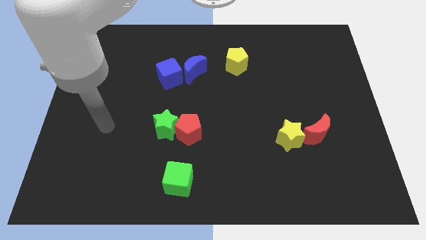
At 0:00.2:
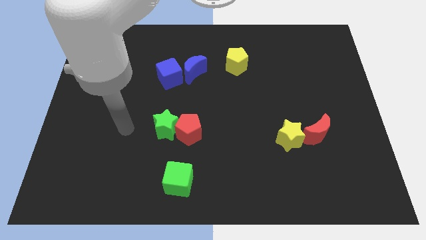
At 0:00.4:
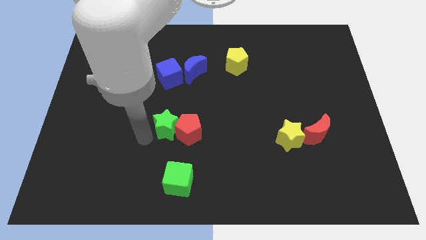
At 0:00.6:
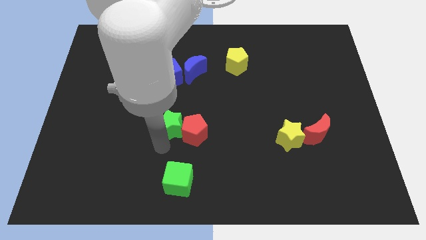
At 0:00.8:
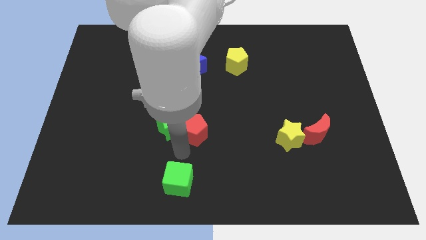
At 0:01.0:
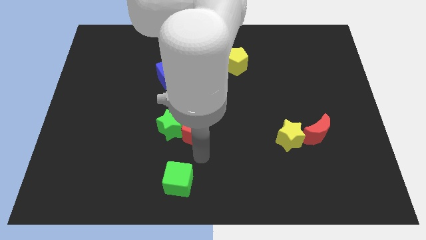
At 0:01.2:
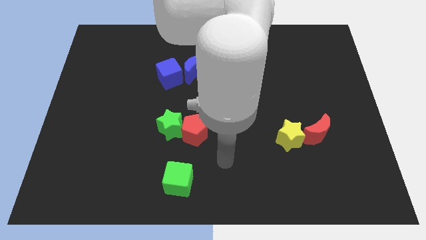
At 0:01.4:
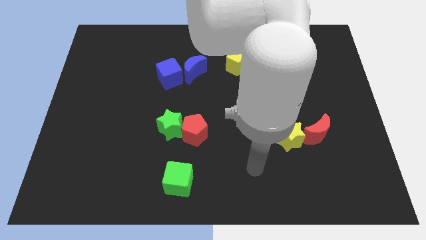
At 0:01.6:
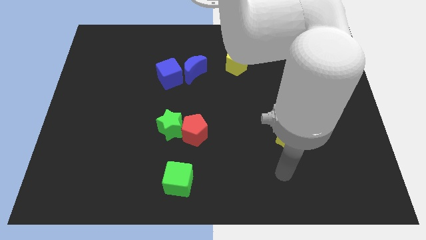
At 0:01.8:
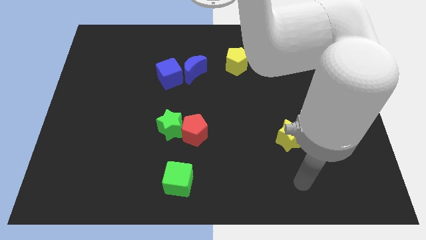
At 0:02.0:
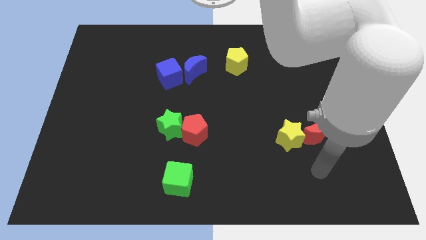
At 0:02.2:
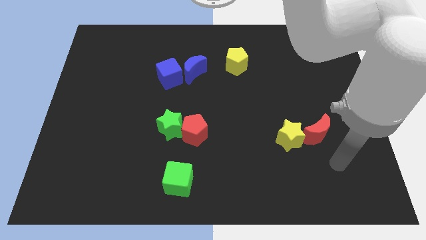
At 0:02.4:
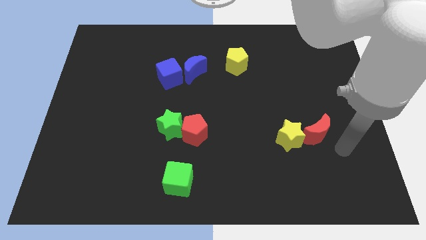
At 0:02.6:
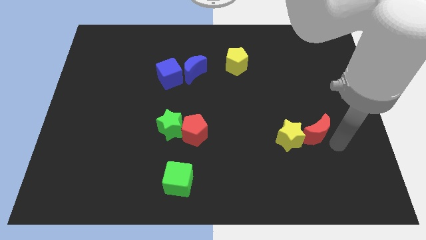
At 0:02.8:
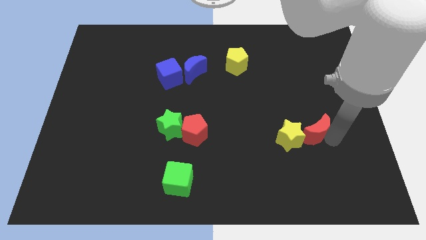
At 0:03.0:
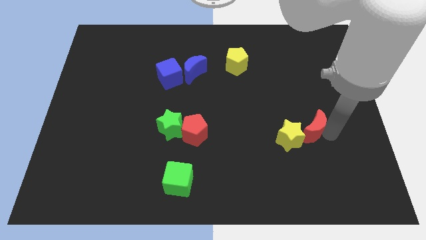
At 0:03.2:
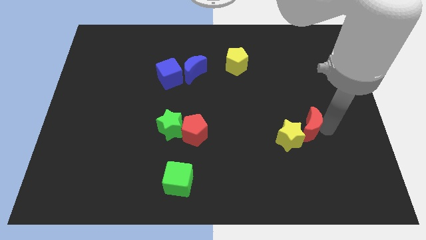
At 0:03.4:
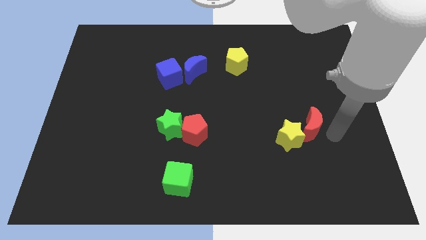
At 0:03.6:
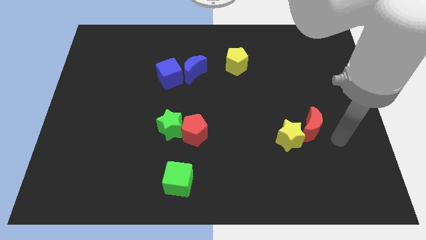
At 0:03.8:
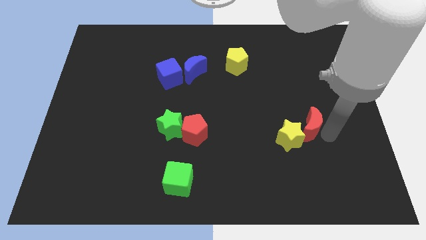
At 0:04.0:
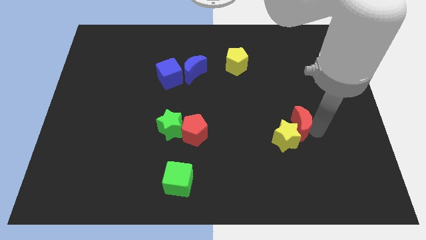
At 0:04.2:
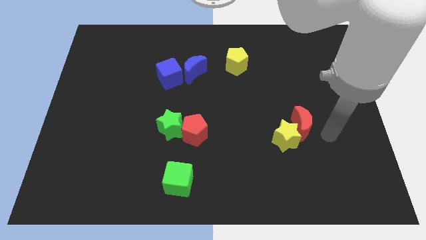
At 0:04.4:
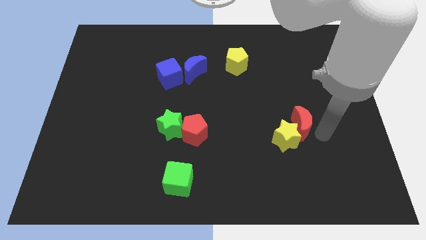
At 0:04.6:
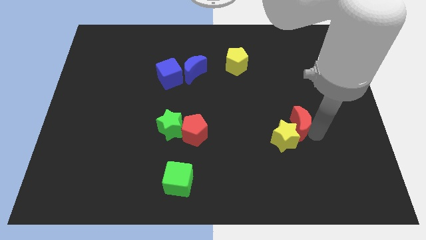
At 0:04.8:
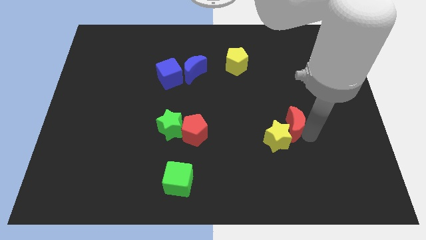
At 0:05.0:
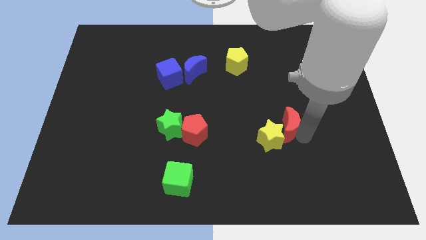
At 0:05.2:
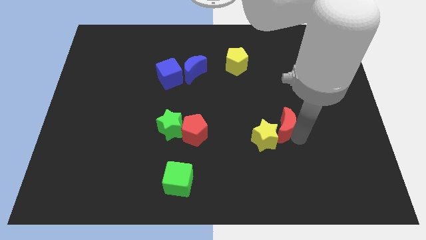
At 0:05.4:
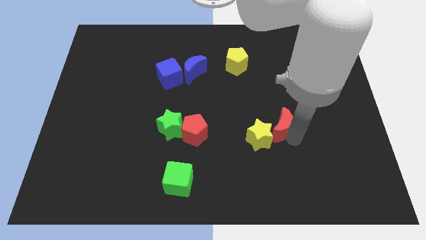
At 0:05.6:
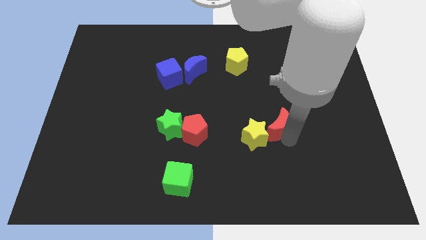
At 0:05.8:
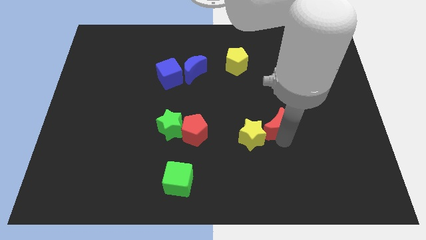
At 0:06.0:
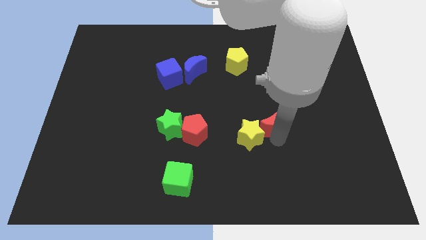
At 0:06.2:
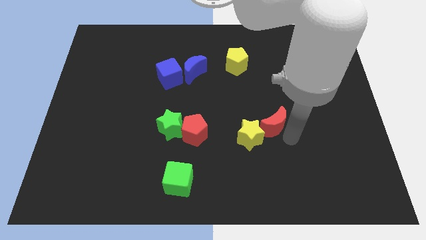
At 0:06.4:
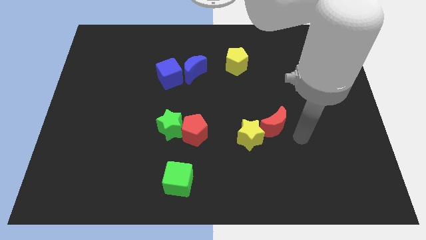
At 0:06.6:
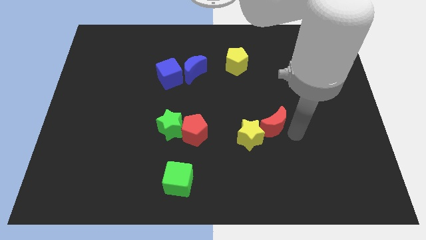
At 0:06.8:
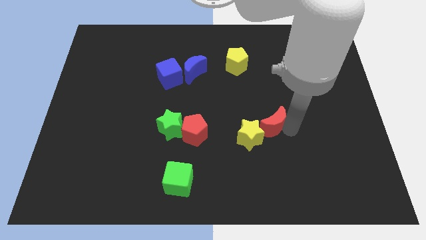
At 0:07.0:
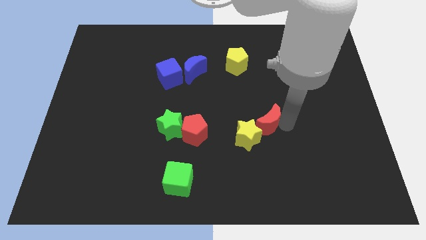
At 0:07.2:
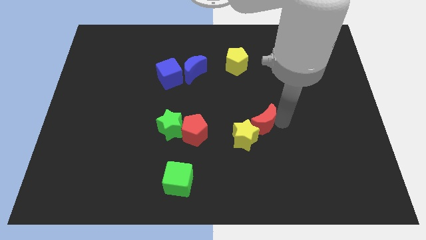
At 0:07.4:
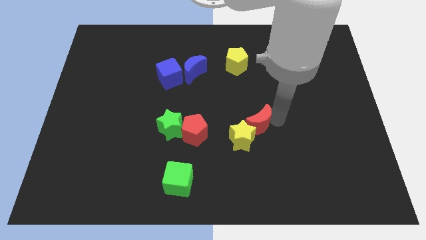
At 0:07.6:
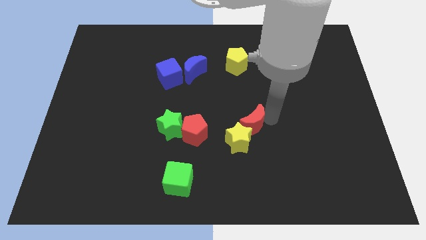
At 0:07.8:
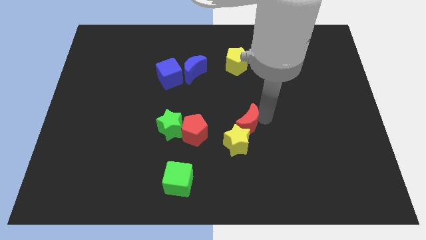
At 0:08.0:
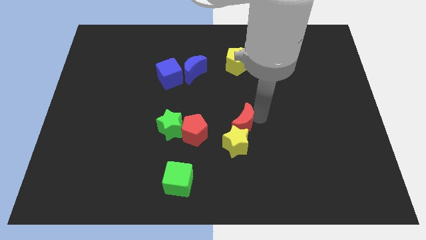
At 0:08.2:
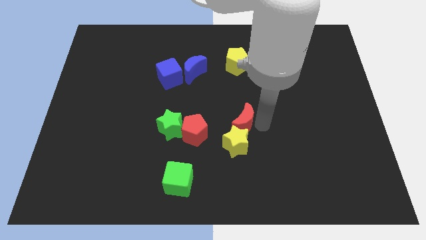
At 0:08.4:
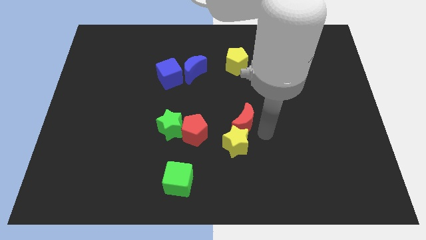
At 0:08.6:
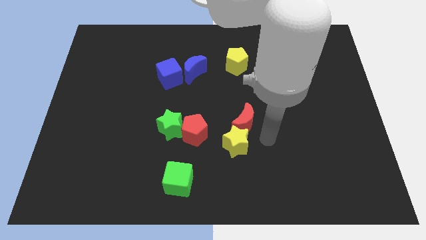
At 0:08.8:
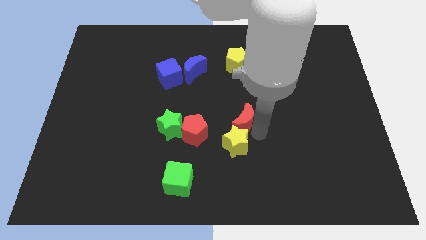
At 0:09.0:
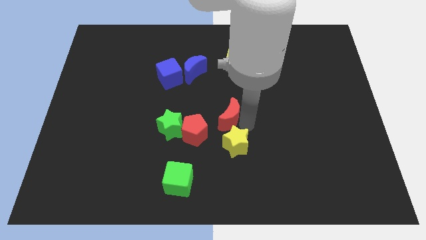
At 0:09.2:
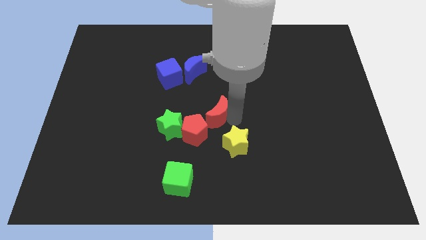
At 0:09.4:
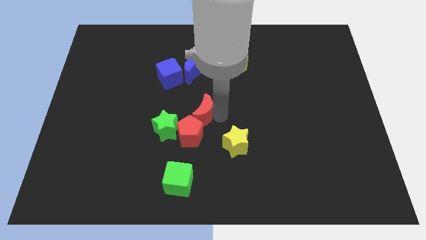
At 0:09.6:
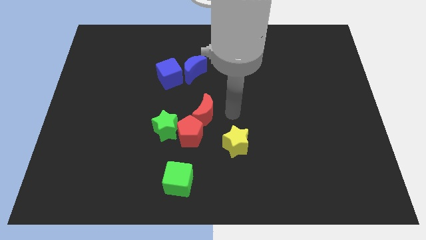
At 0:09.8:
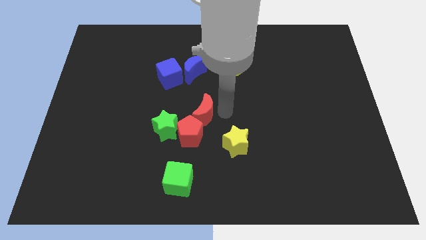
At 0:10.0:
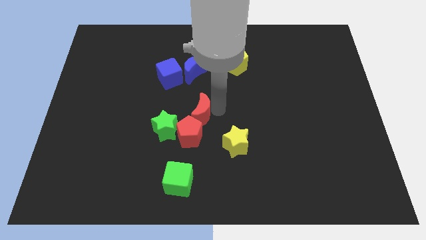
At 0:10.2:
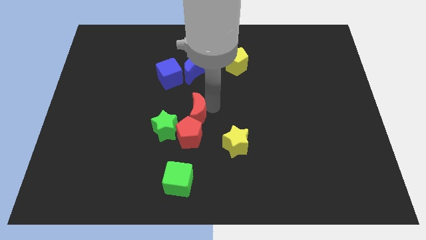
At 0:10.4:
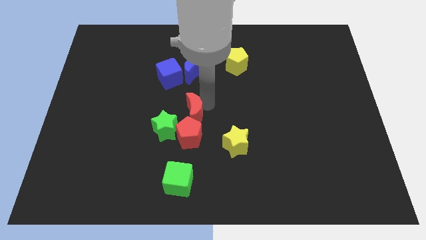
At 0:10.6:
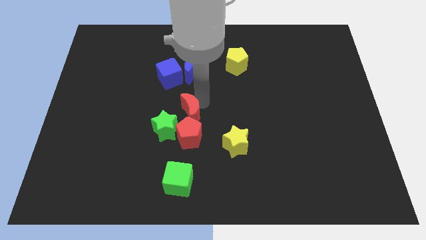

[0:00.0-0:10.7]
move the red moon to the top left side of the red pentagon

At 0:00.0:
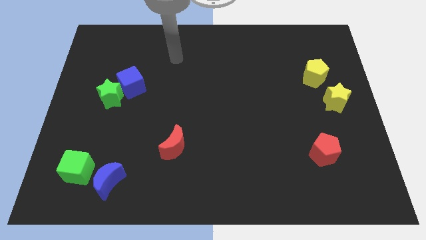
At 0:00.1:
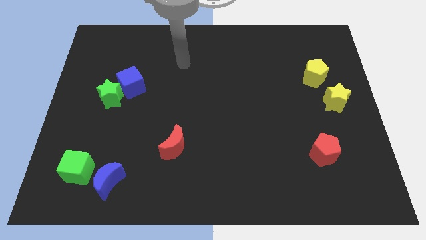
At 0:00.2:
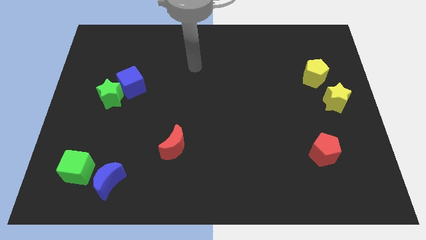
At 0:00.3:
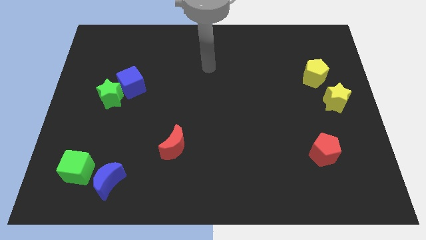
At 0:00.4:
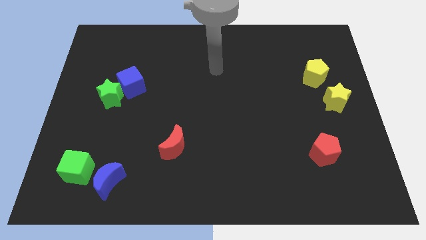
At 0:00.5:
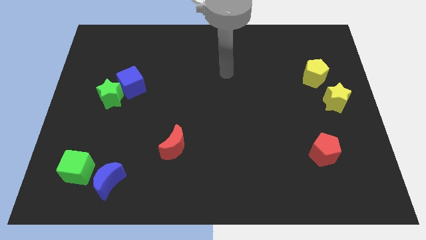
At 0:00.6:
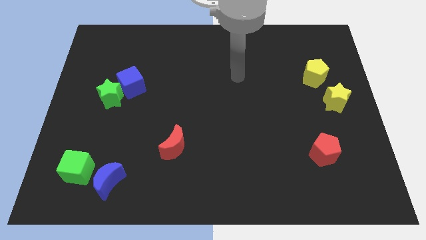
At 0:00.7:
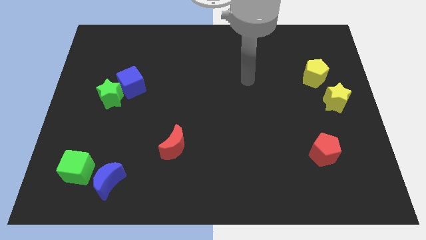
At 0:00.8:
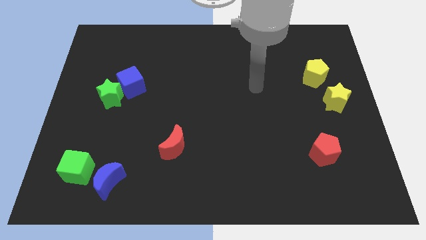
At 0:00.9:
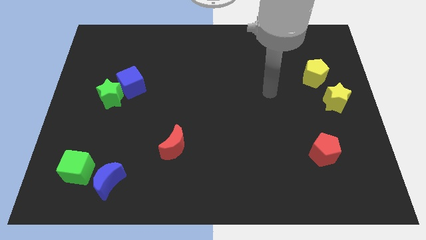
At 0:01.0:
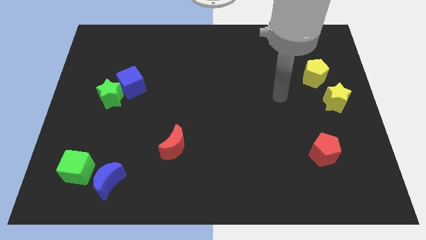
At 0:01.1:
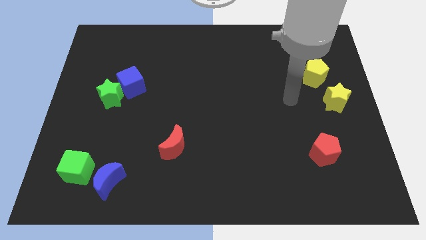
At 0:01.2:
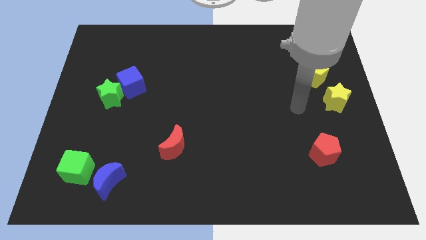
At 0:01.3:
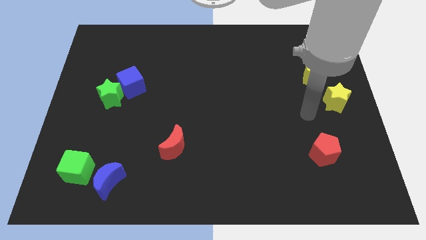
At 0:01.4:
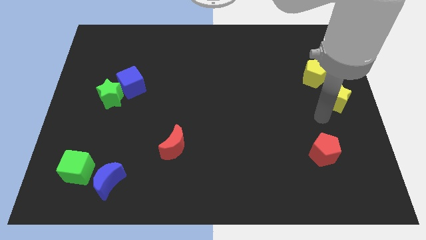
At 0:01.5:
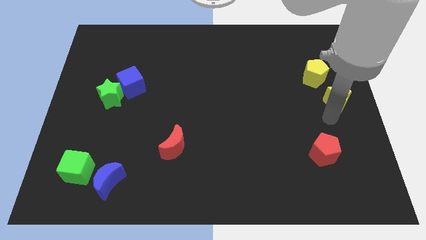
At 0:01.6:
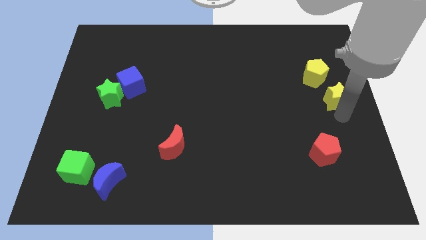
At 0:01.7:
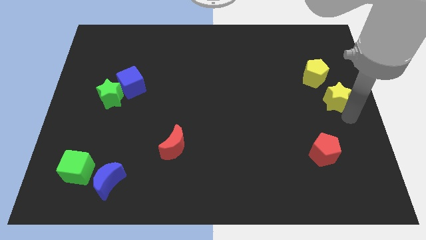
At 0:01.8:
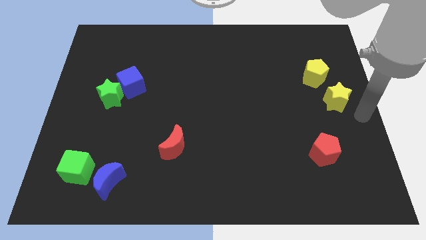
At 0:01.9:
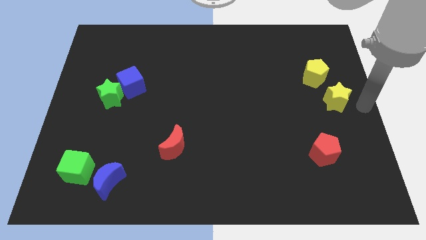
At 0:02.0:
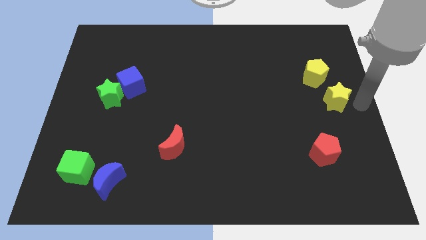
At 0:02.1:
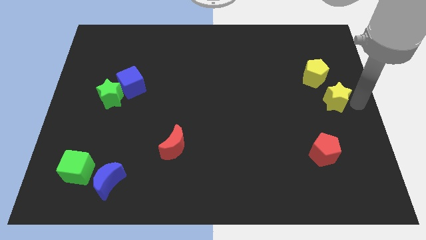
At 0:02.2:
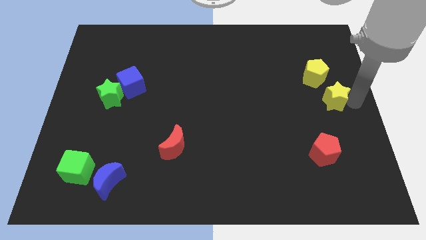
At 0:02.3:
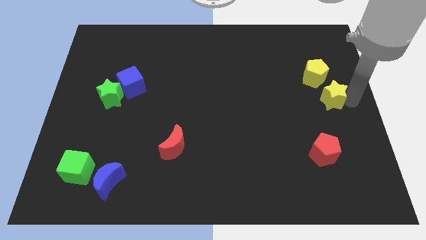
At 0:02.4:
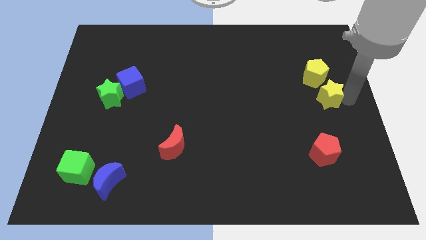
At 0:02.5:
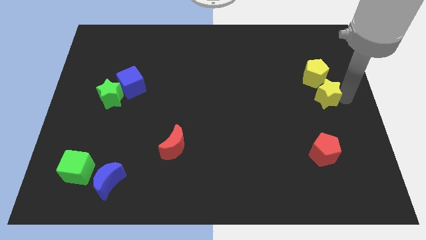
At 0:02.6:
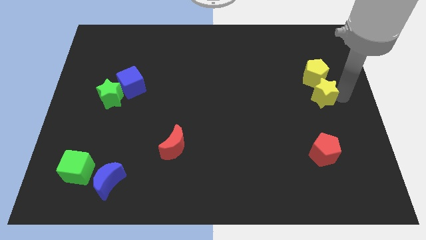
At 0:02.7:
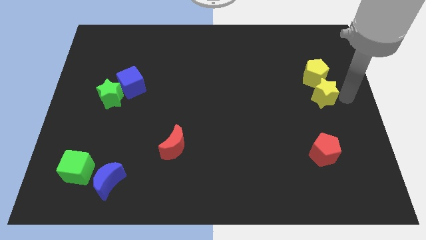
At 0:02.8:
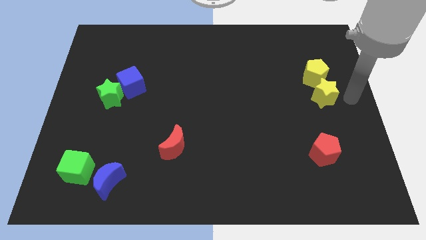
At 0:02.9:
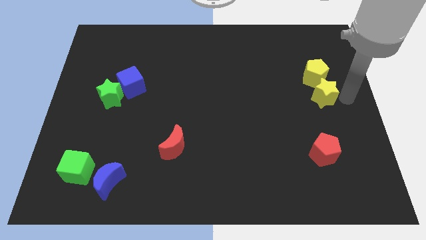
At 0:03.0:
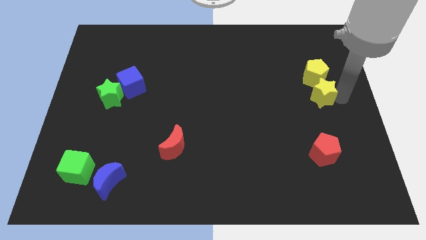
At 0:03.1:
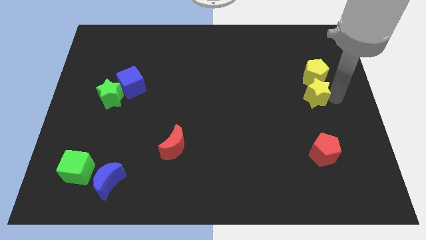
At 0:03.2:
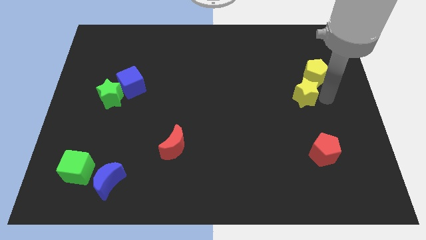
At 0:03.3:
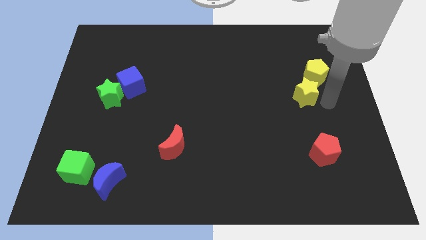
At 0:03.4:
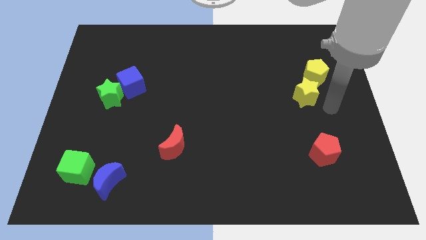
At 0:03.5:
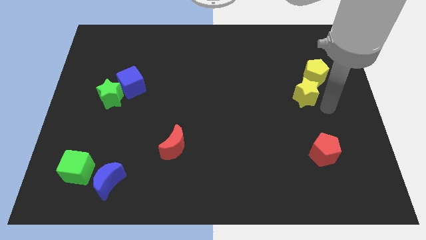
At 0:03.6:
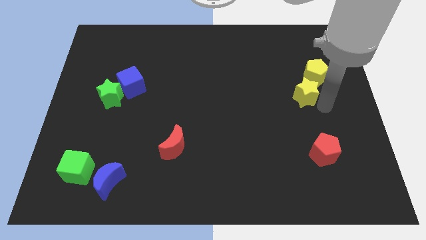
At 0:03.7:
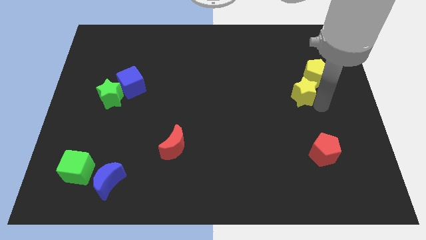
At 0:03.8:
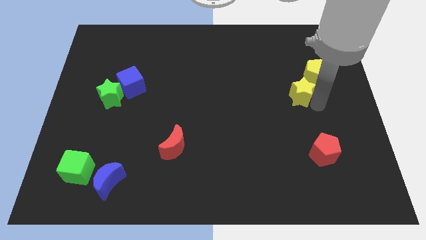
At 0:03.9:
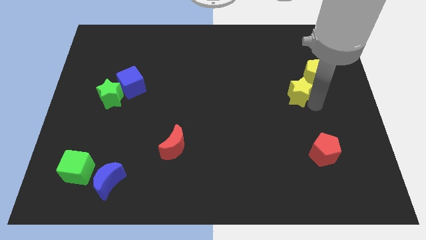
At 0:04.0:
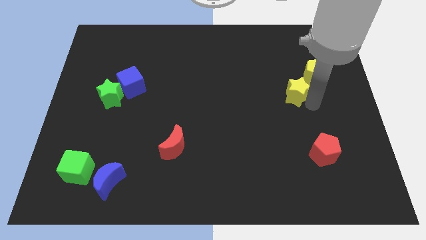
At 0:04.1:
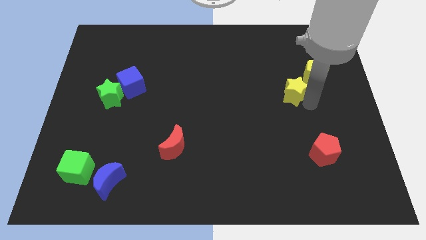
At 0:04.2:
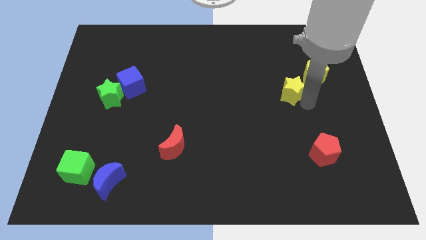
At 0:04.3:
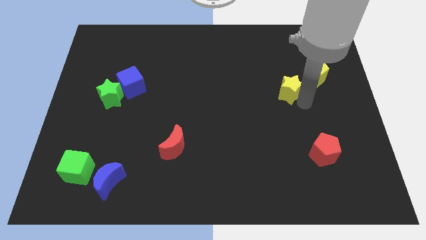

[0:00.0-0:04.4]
put the yellow star left of the yellow pentagon
